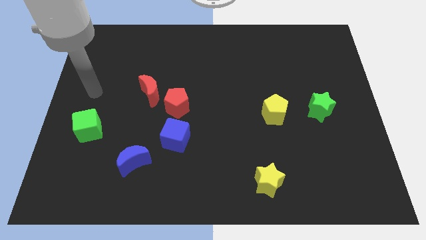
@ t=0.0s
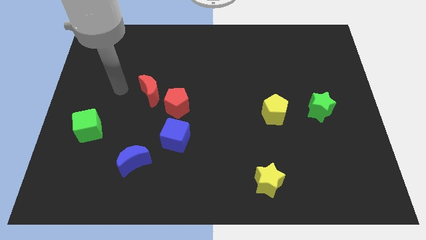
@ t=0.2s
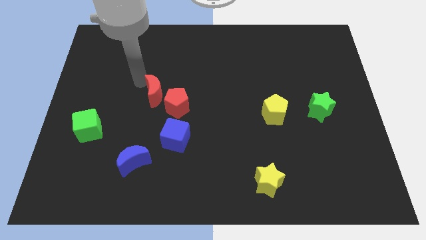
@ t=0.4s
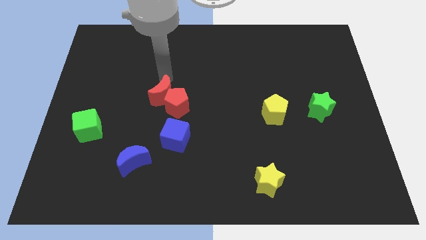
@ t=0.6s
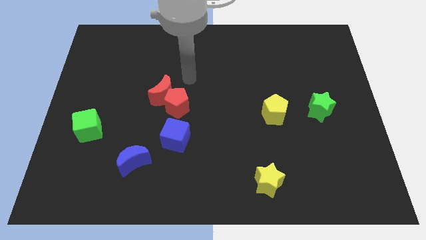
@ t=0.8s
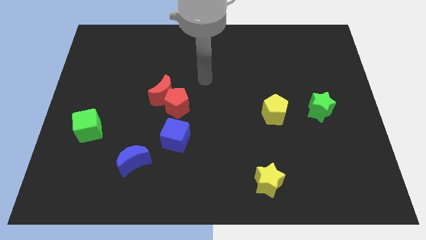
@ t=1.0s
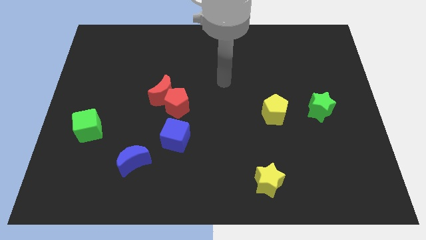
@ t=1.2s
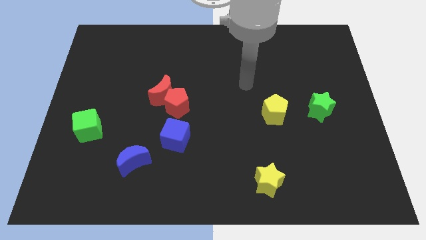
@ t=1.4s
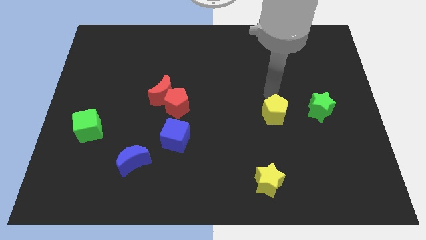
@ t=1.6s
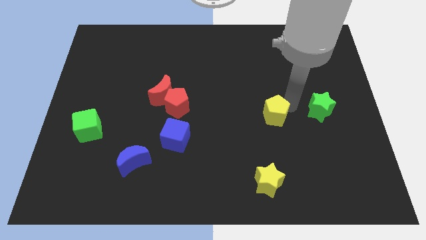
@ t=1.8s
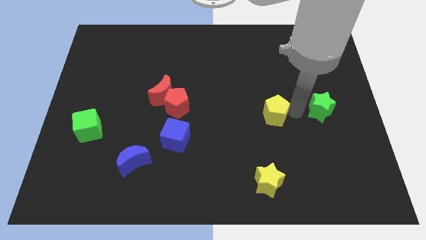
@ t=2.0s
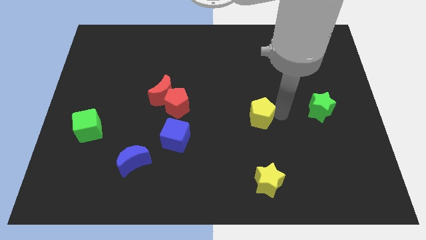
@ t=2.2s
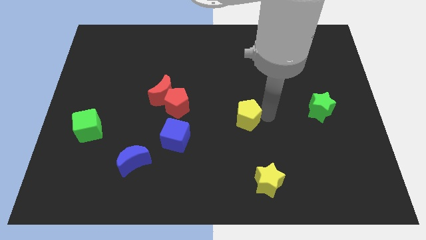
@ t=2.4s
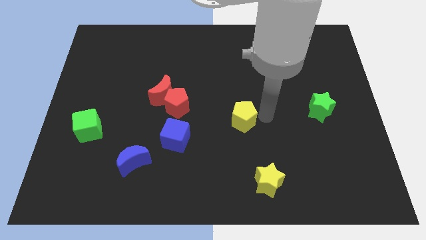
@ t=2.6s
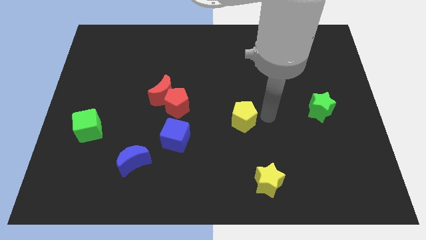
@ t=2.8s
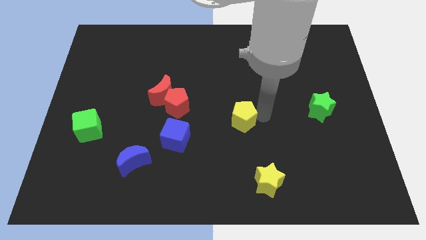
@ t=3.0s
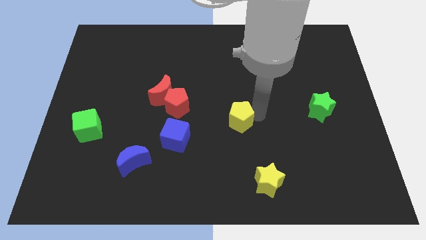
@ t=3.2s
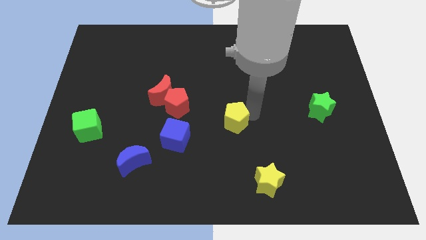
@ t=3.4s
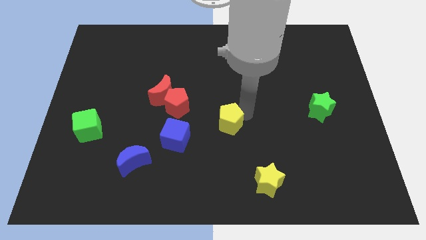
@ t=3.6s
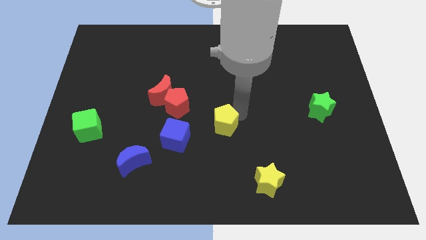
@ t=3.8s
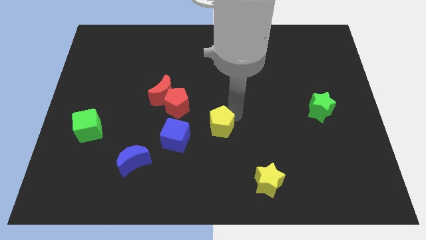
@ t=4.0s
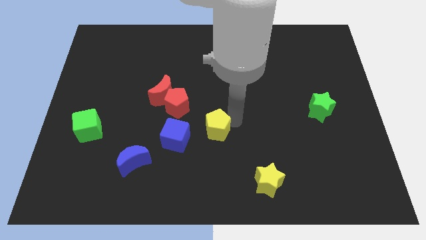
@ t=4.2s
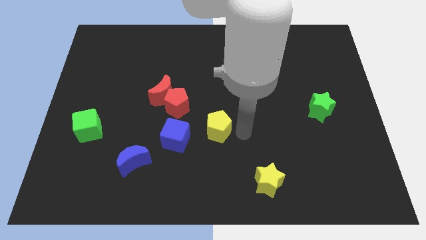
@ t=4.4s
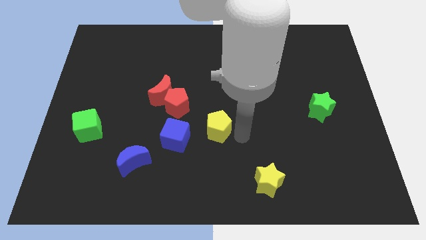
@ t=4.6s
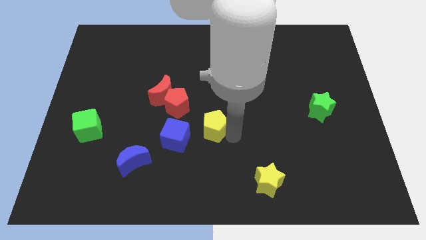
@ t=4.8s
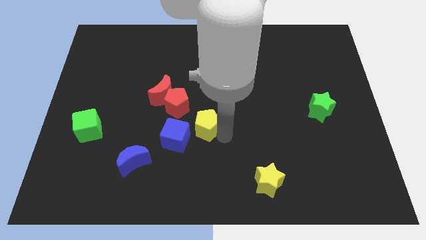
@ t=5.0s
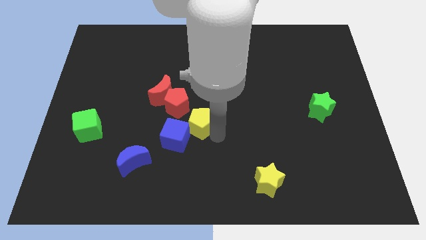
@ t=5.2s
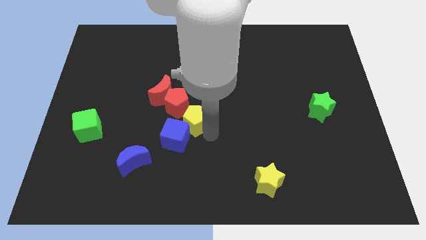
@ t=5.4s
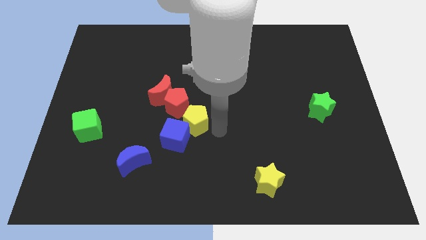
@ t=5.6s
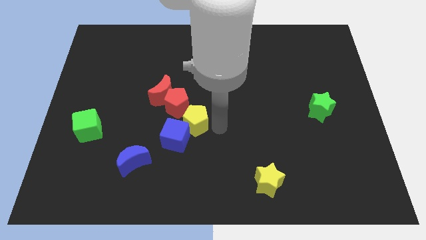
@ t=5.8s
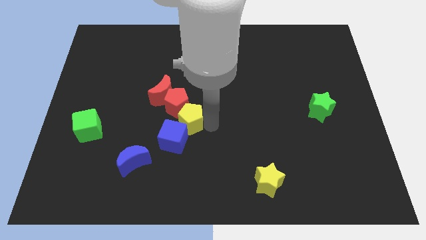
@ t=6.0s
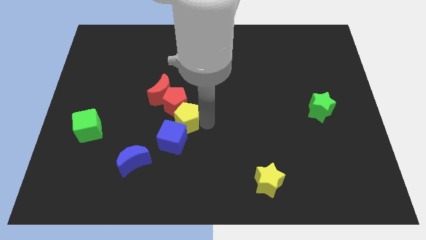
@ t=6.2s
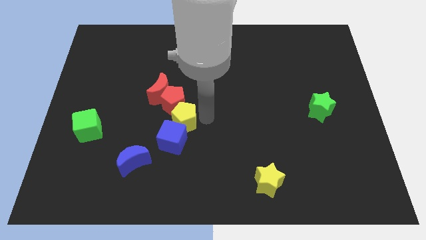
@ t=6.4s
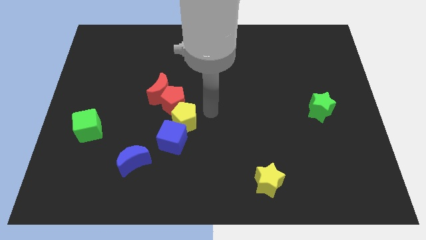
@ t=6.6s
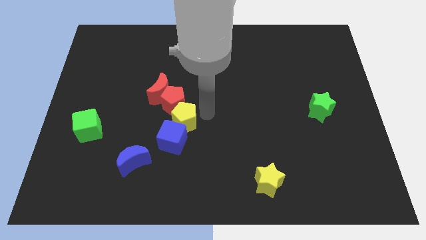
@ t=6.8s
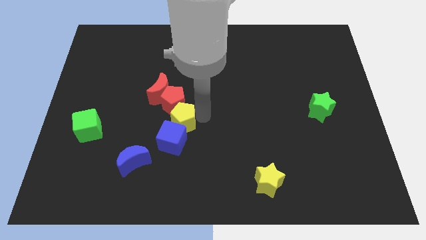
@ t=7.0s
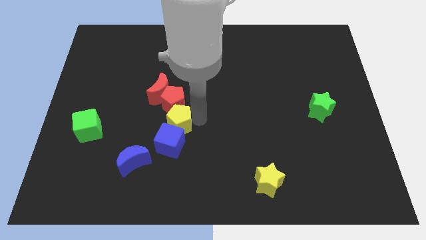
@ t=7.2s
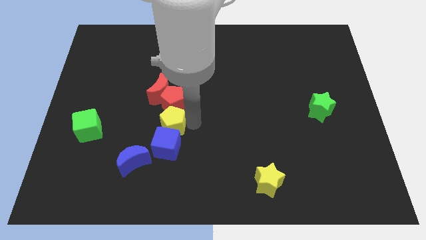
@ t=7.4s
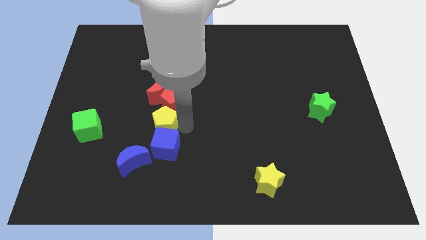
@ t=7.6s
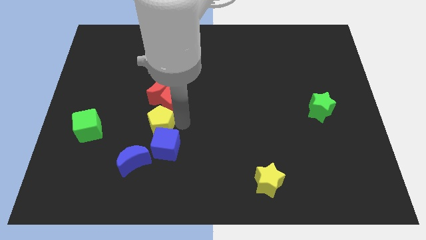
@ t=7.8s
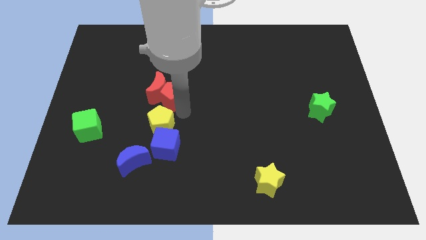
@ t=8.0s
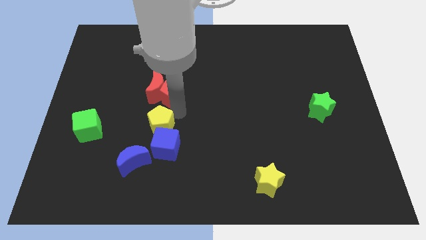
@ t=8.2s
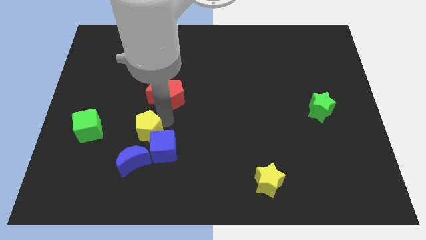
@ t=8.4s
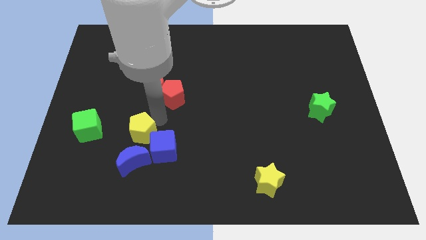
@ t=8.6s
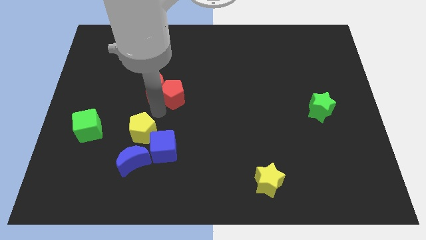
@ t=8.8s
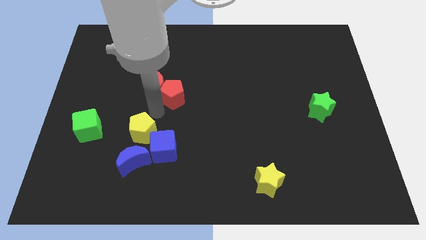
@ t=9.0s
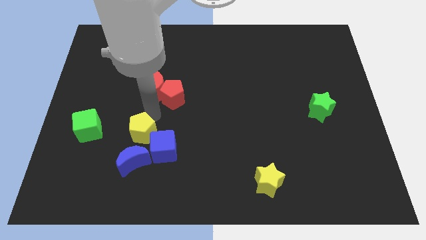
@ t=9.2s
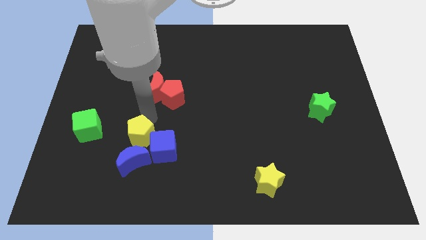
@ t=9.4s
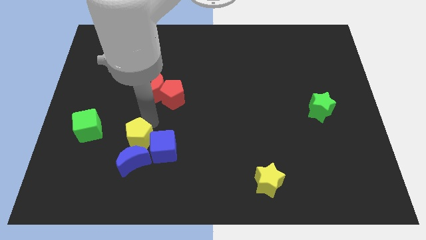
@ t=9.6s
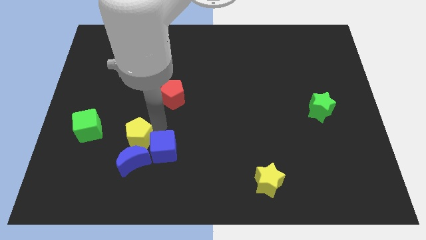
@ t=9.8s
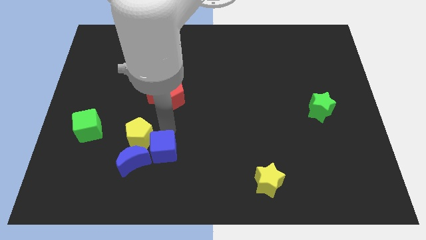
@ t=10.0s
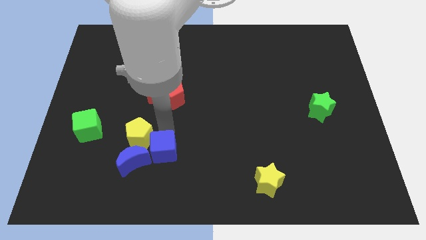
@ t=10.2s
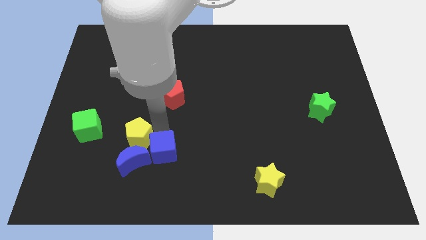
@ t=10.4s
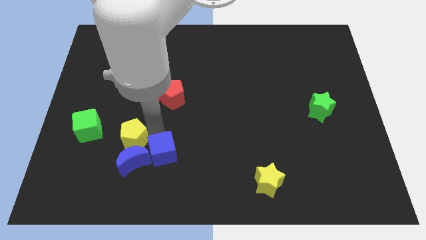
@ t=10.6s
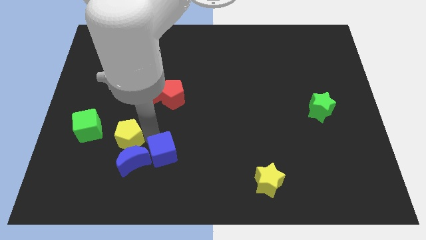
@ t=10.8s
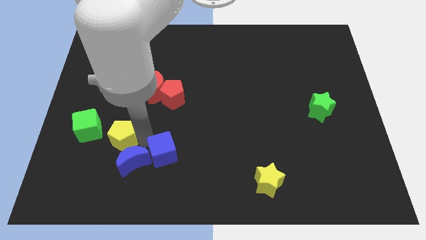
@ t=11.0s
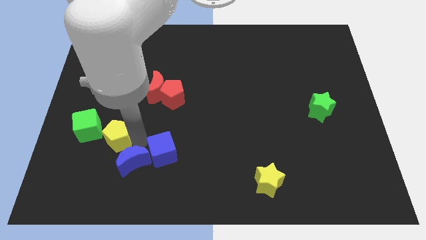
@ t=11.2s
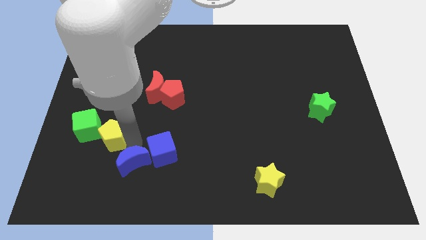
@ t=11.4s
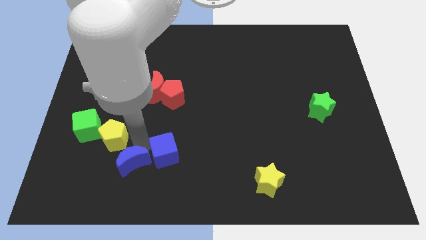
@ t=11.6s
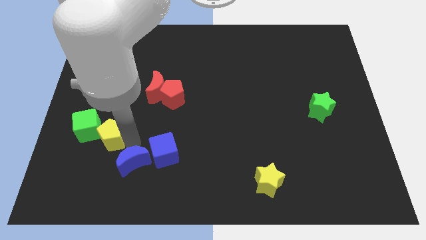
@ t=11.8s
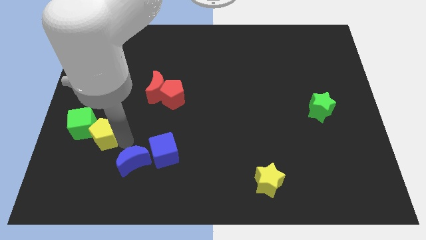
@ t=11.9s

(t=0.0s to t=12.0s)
slide the yellow pentagon close to the green cube

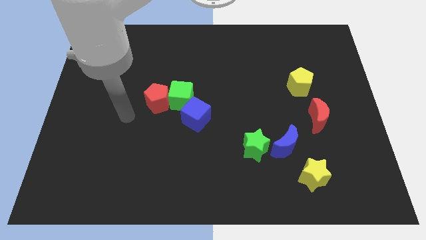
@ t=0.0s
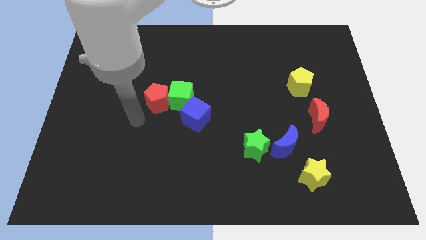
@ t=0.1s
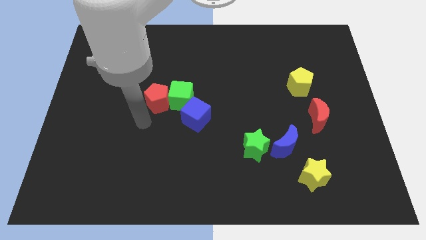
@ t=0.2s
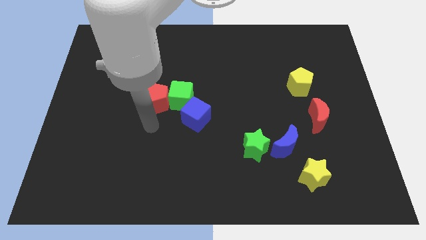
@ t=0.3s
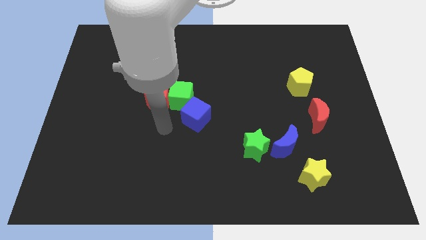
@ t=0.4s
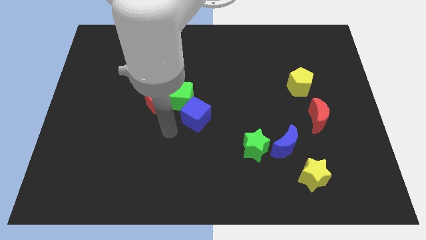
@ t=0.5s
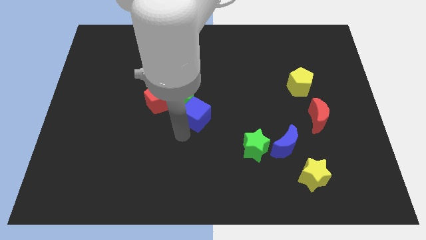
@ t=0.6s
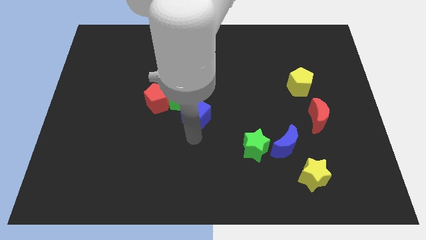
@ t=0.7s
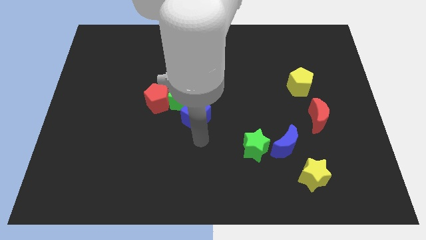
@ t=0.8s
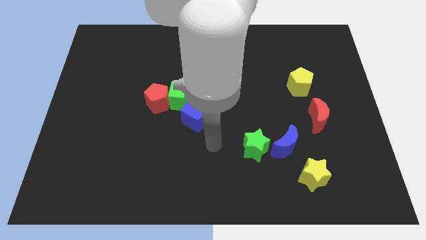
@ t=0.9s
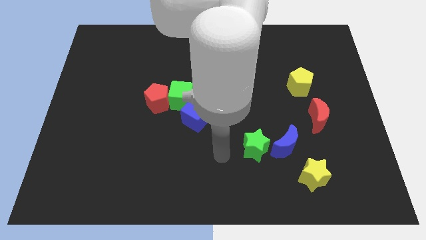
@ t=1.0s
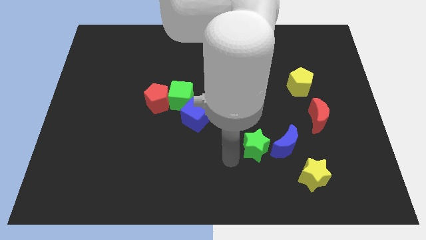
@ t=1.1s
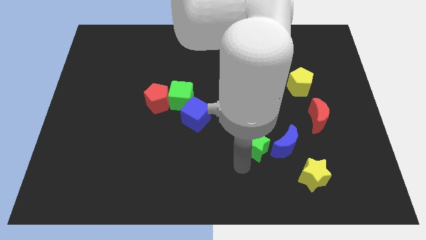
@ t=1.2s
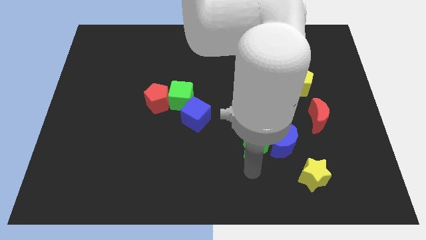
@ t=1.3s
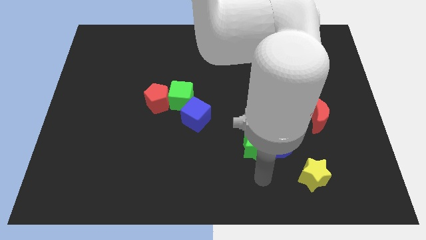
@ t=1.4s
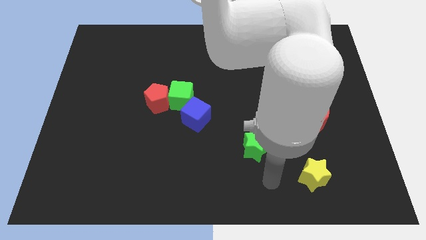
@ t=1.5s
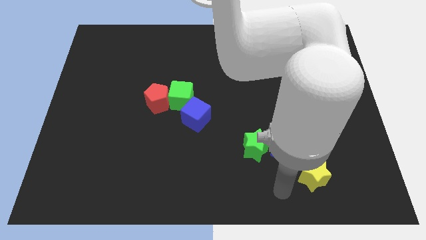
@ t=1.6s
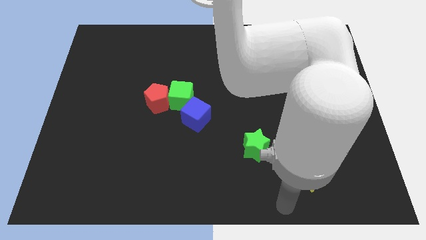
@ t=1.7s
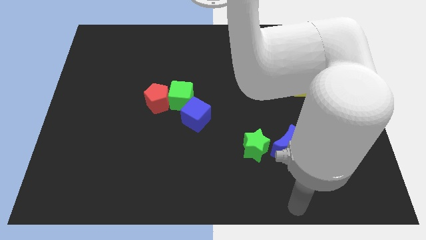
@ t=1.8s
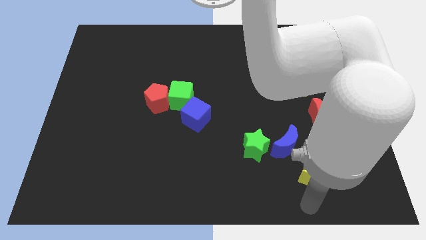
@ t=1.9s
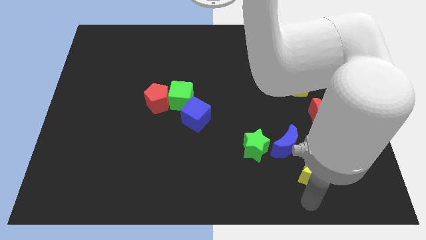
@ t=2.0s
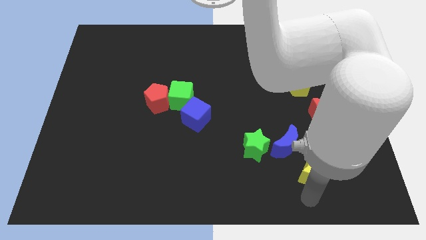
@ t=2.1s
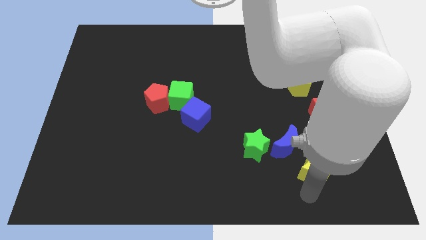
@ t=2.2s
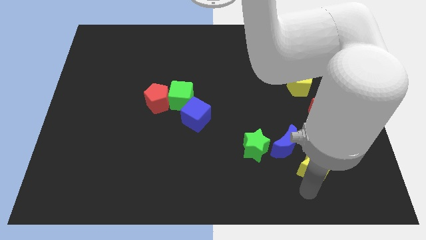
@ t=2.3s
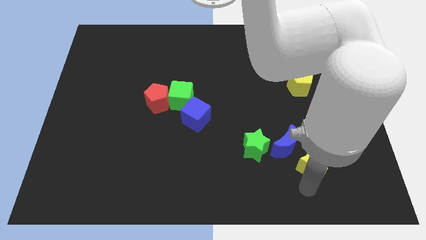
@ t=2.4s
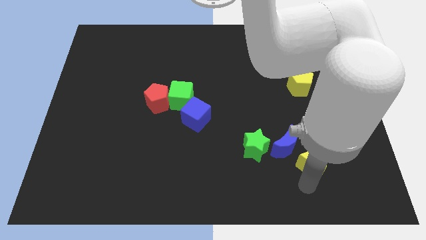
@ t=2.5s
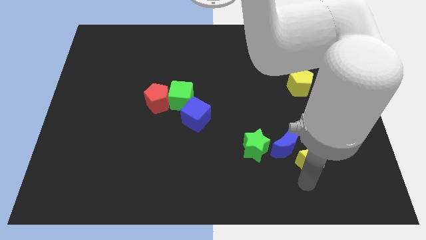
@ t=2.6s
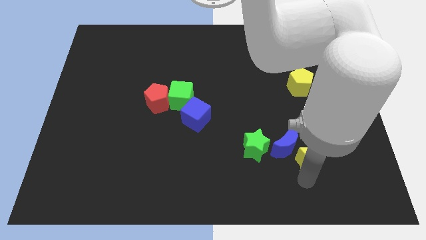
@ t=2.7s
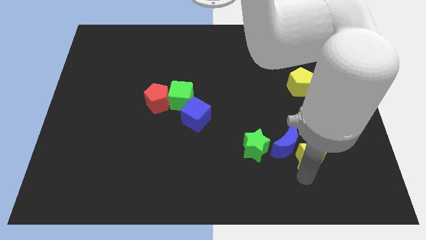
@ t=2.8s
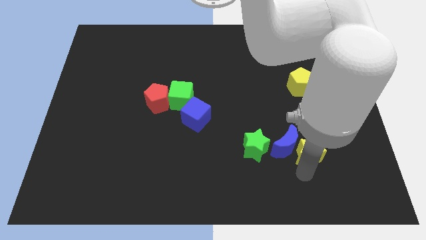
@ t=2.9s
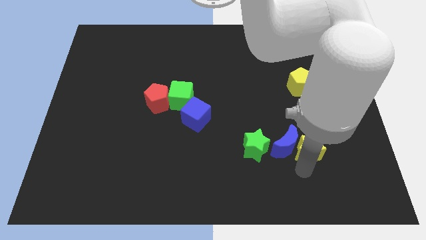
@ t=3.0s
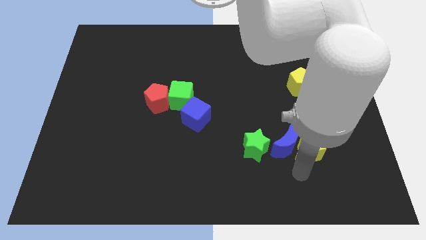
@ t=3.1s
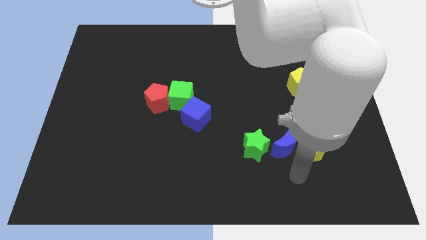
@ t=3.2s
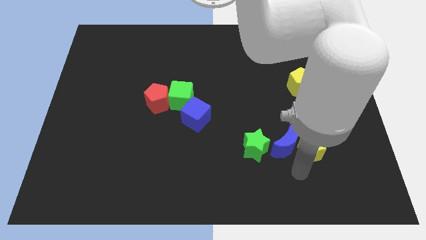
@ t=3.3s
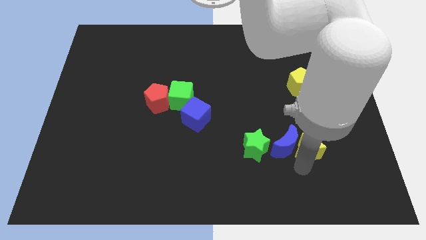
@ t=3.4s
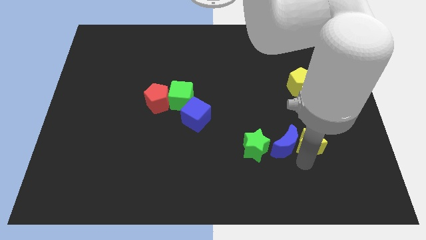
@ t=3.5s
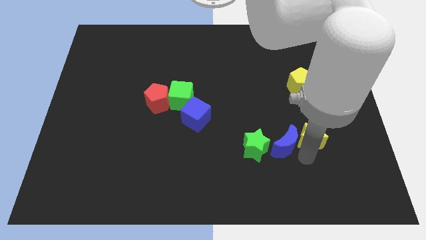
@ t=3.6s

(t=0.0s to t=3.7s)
slide the yellow star to the red moon
